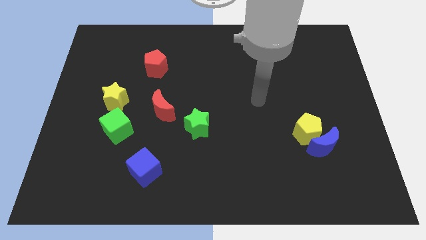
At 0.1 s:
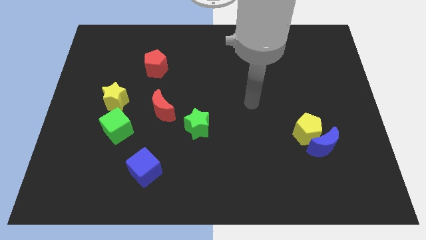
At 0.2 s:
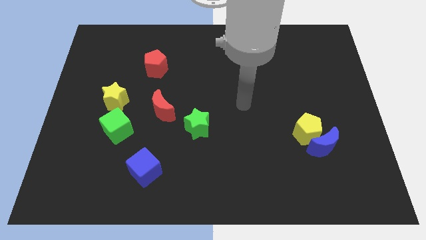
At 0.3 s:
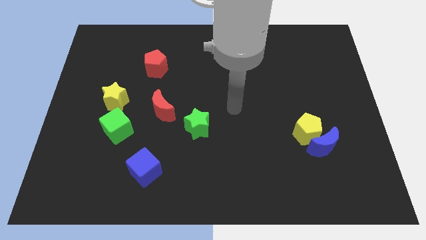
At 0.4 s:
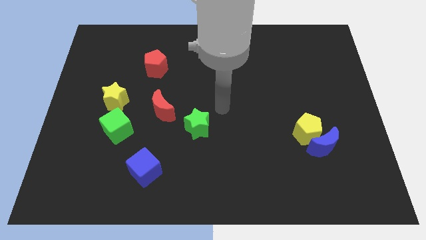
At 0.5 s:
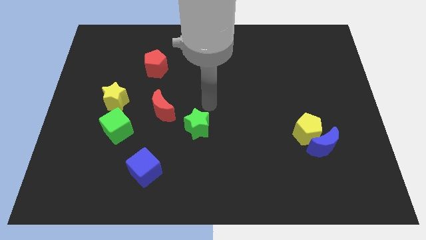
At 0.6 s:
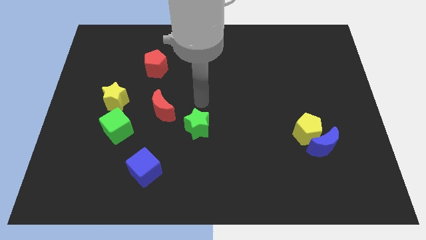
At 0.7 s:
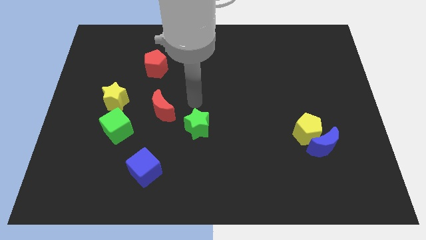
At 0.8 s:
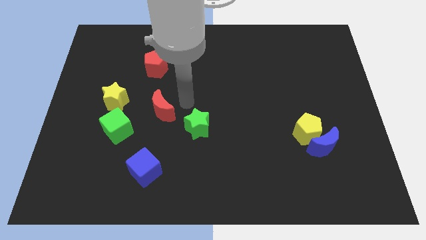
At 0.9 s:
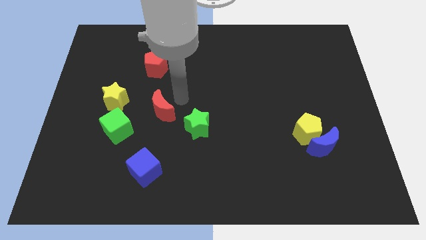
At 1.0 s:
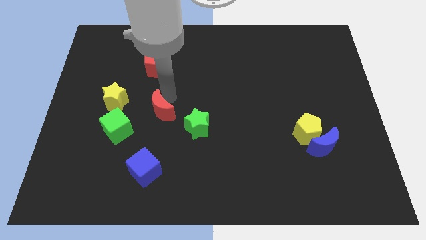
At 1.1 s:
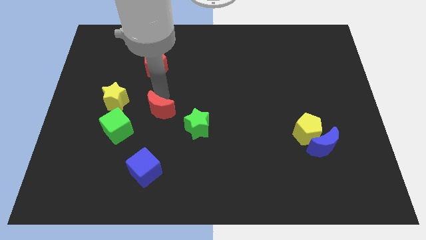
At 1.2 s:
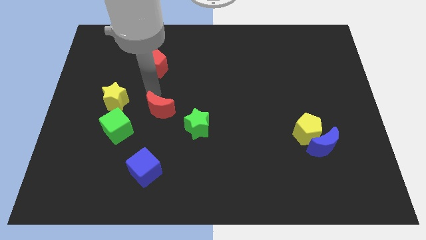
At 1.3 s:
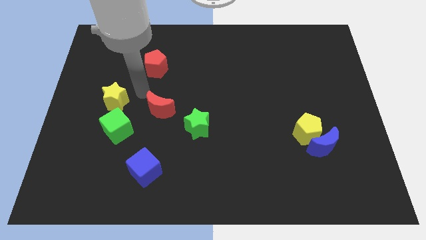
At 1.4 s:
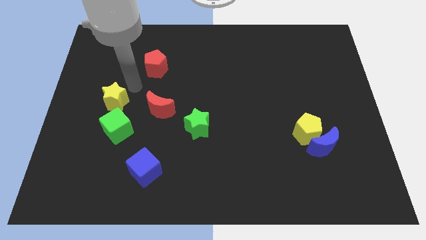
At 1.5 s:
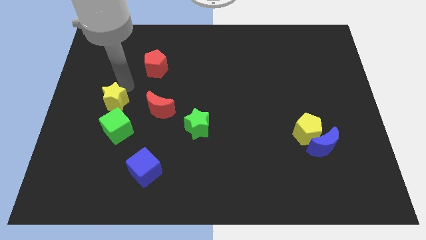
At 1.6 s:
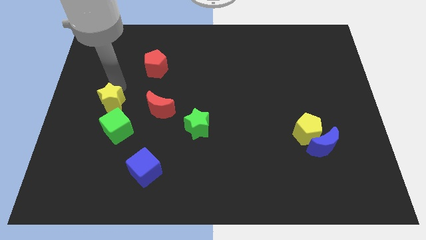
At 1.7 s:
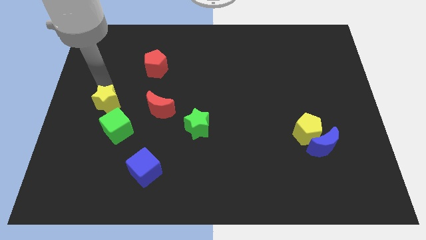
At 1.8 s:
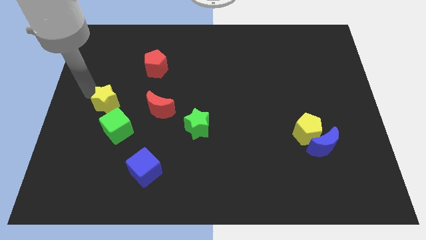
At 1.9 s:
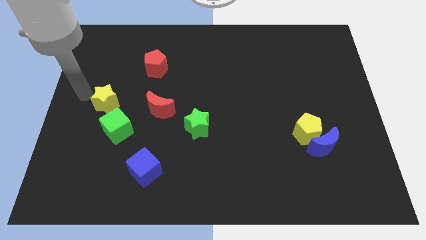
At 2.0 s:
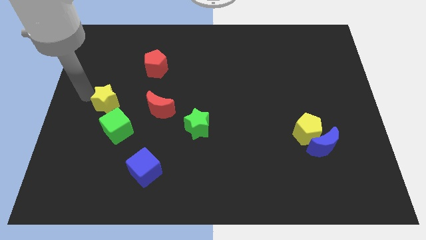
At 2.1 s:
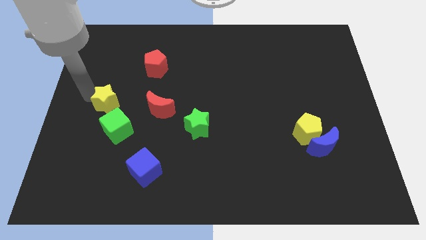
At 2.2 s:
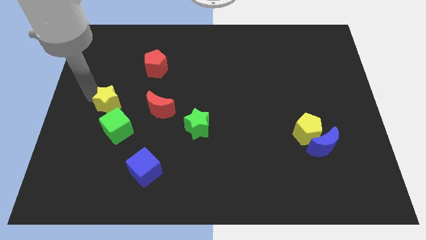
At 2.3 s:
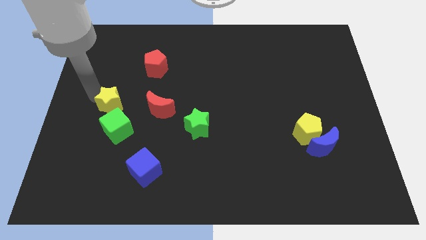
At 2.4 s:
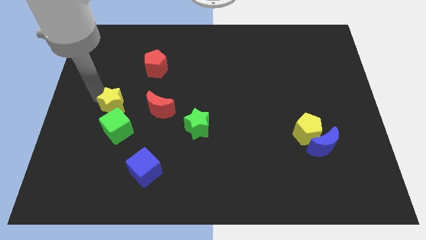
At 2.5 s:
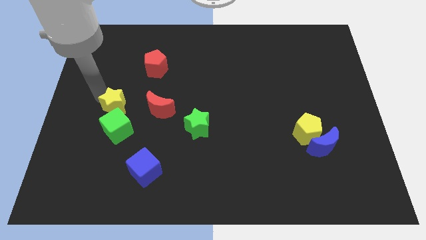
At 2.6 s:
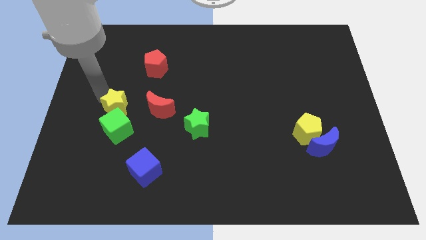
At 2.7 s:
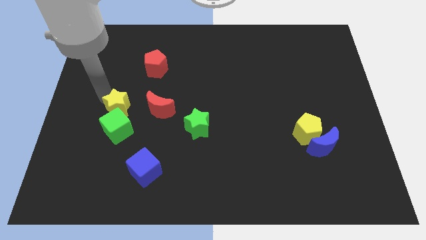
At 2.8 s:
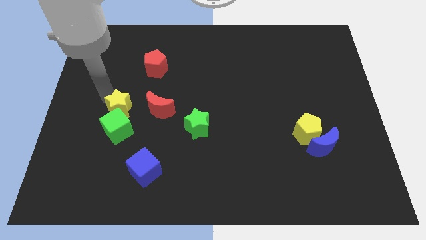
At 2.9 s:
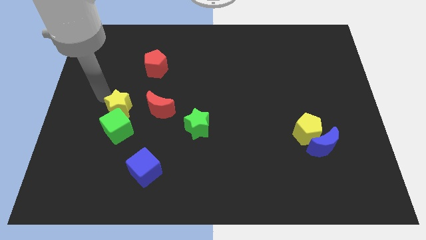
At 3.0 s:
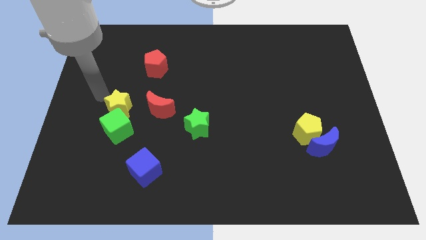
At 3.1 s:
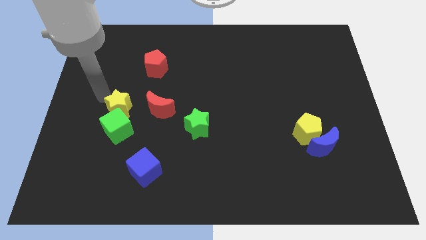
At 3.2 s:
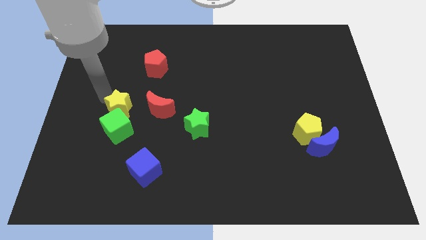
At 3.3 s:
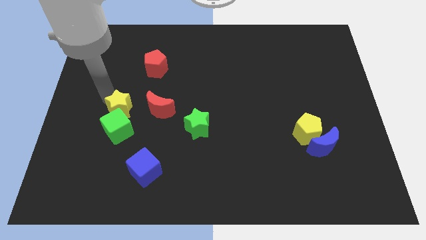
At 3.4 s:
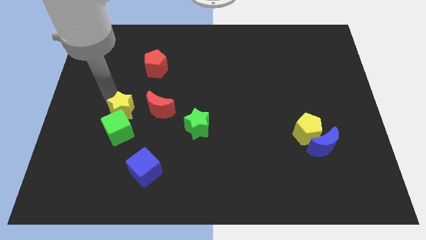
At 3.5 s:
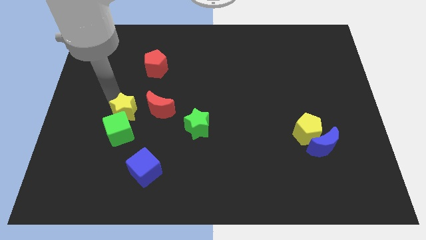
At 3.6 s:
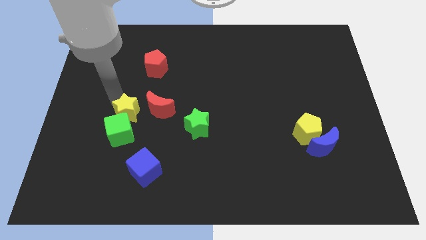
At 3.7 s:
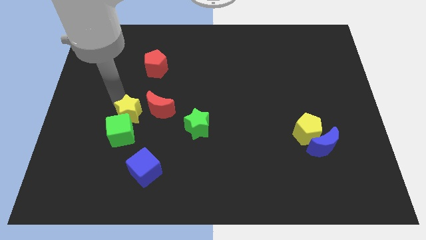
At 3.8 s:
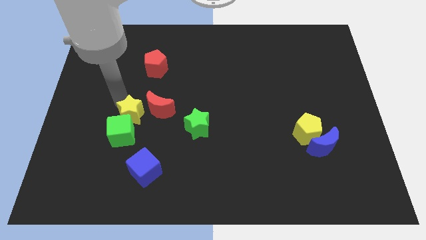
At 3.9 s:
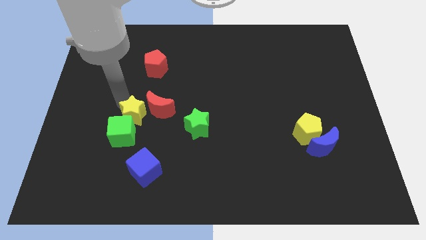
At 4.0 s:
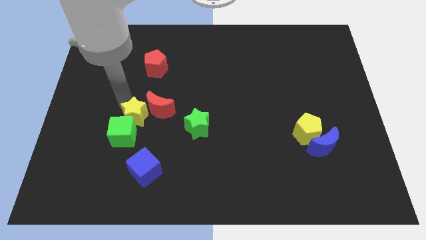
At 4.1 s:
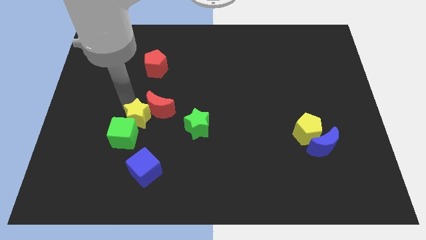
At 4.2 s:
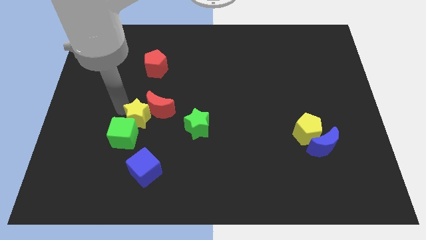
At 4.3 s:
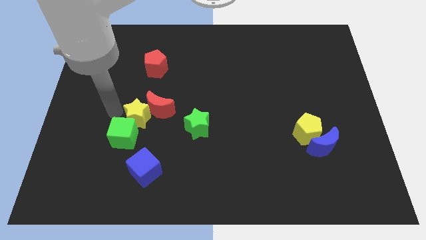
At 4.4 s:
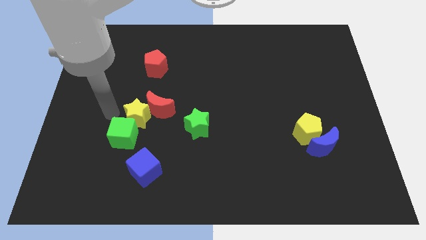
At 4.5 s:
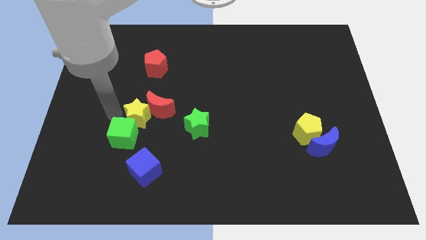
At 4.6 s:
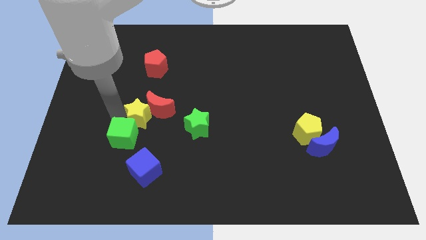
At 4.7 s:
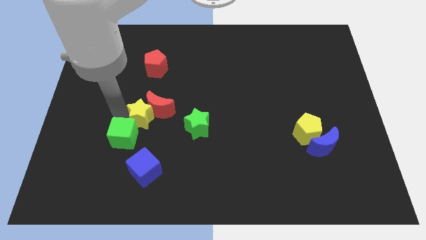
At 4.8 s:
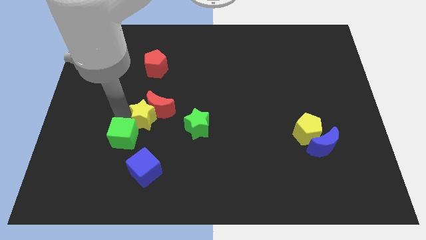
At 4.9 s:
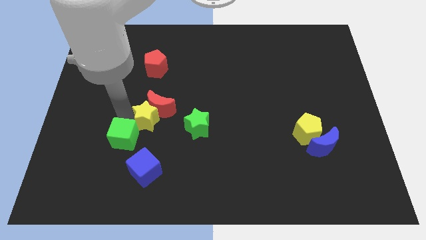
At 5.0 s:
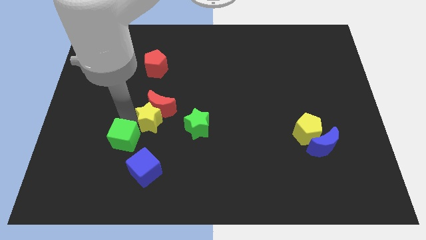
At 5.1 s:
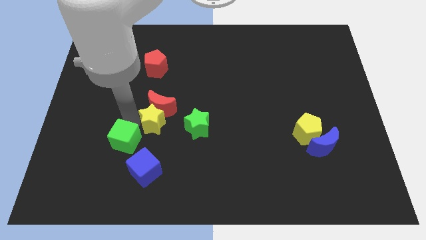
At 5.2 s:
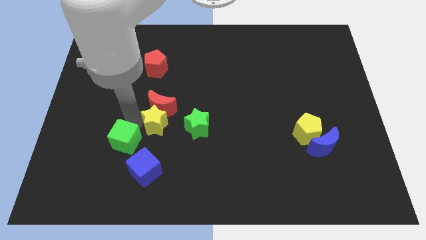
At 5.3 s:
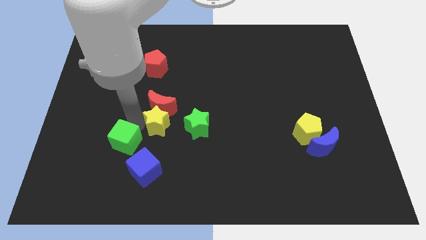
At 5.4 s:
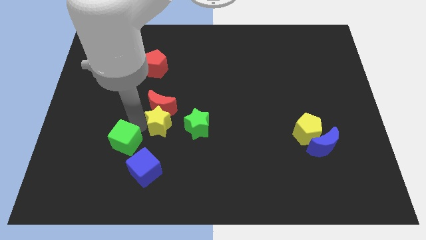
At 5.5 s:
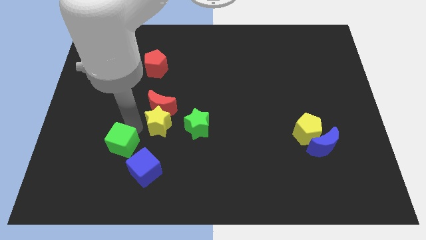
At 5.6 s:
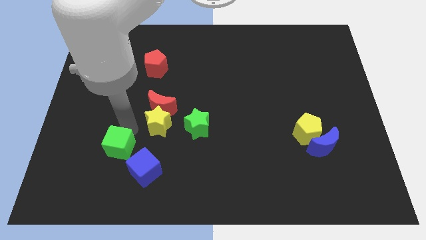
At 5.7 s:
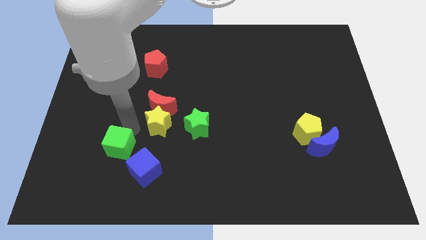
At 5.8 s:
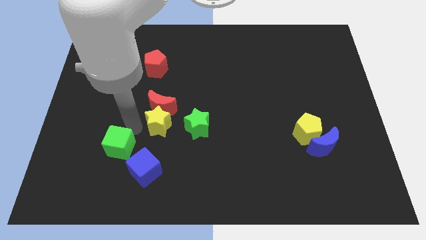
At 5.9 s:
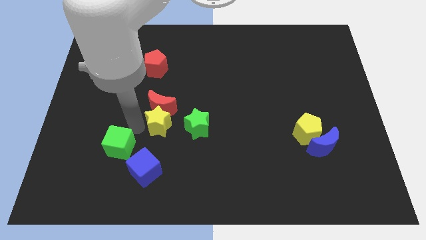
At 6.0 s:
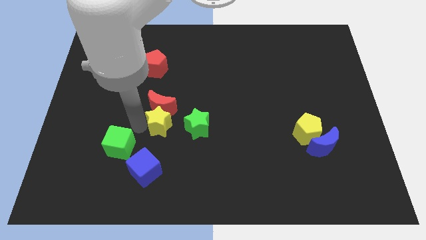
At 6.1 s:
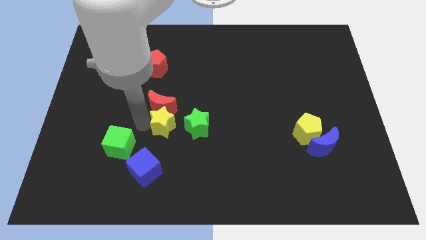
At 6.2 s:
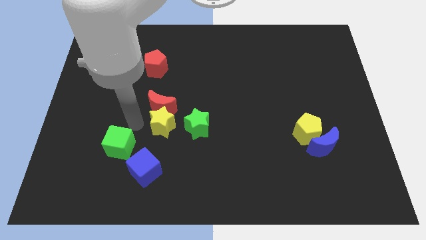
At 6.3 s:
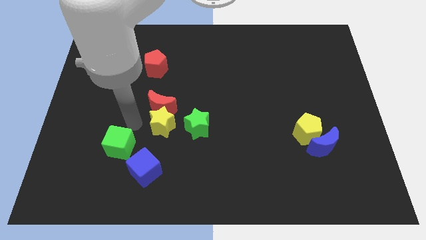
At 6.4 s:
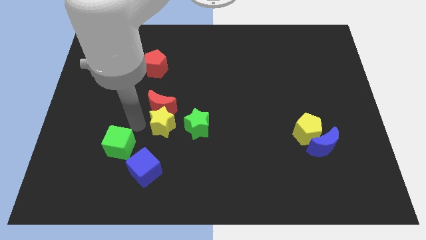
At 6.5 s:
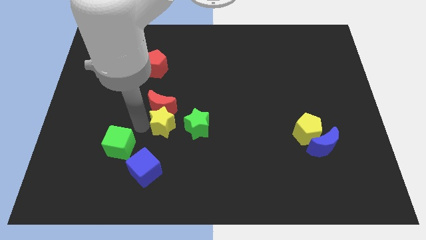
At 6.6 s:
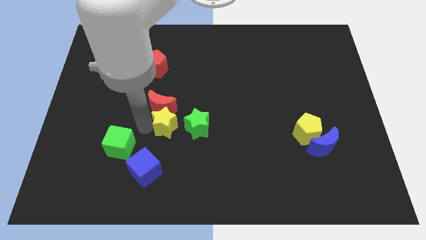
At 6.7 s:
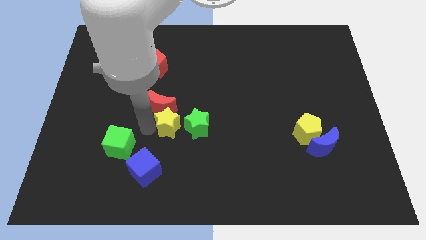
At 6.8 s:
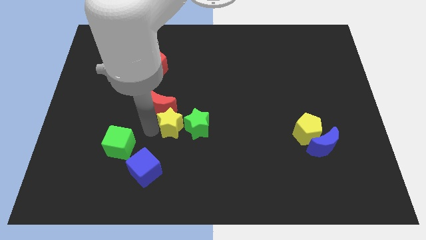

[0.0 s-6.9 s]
put the yellow star towards the green star

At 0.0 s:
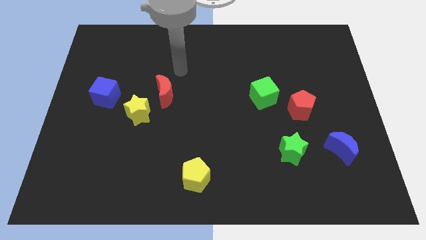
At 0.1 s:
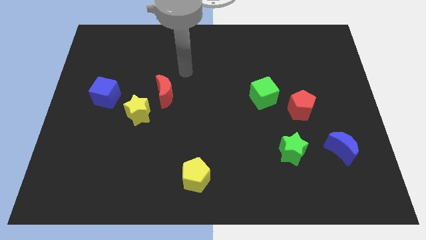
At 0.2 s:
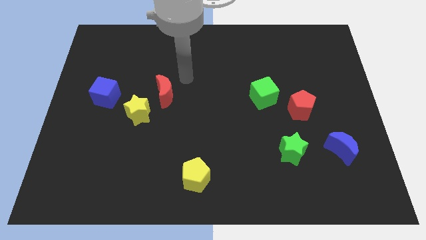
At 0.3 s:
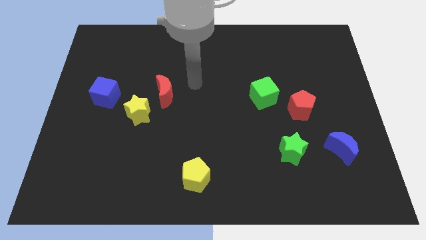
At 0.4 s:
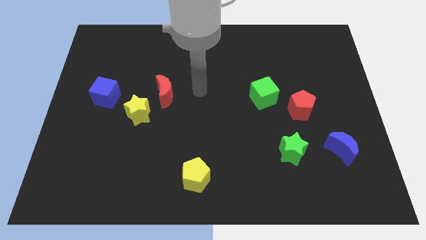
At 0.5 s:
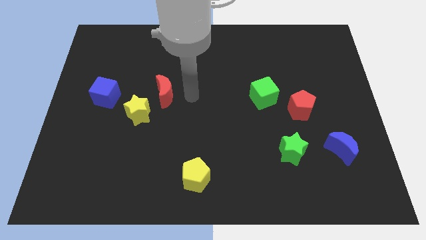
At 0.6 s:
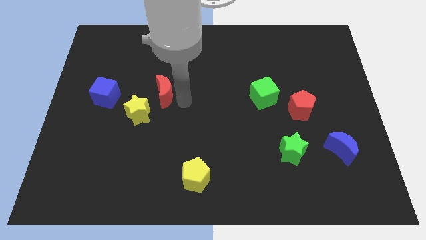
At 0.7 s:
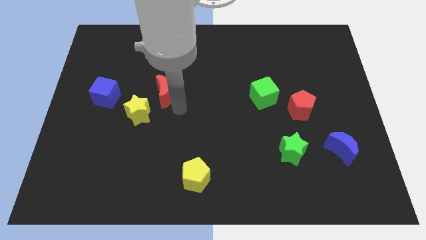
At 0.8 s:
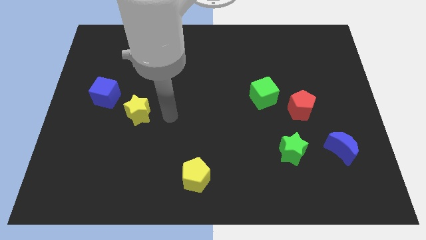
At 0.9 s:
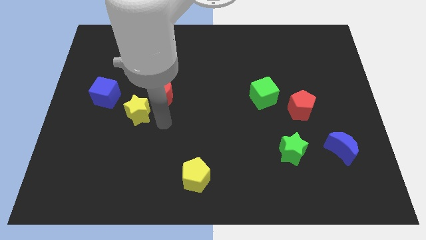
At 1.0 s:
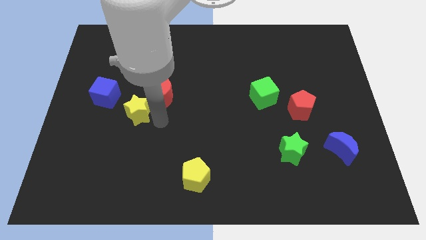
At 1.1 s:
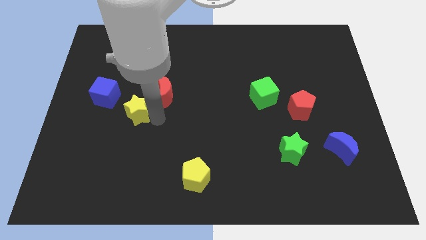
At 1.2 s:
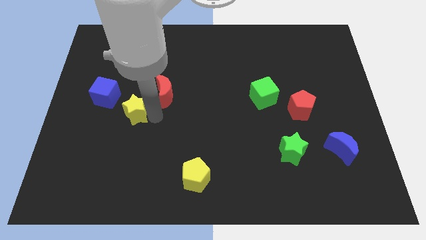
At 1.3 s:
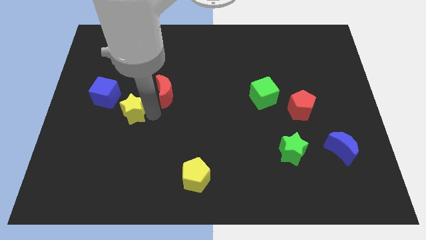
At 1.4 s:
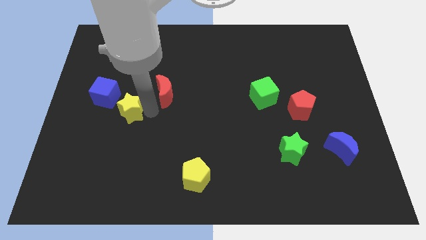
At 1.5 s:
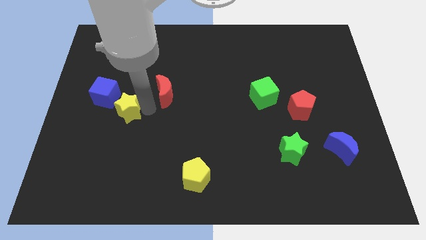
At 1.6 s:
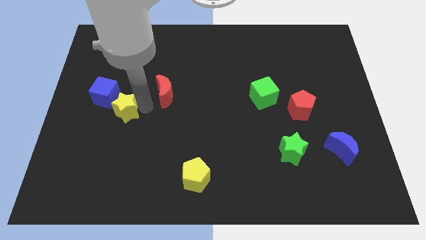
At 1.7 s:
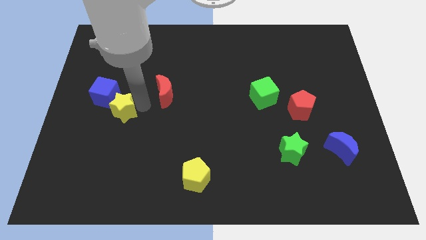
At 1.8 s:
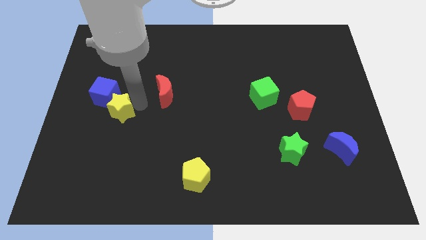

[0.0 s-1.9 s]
move the yellow star to the blue cube
